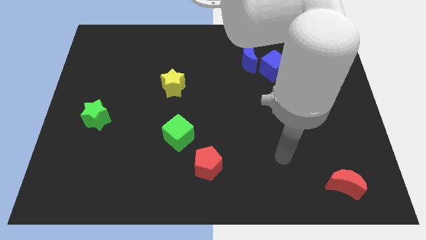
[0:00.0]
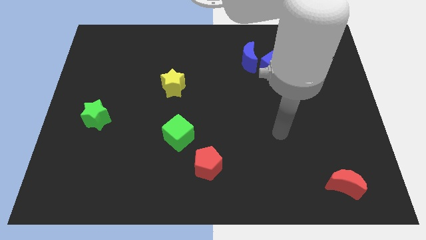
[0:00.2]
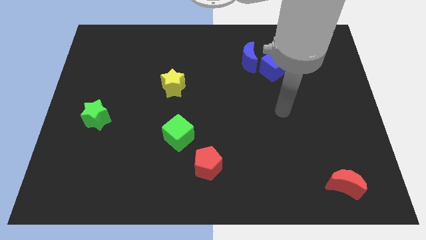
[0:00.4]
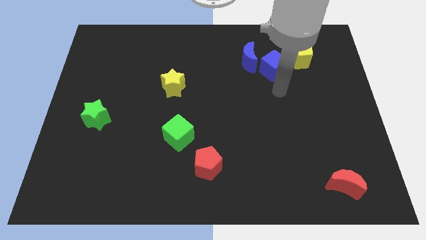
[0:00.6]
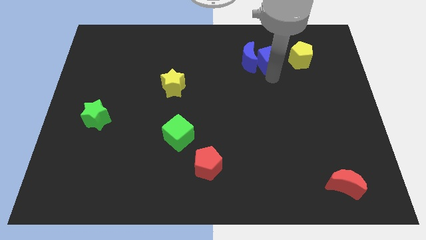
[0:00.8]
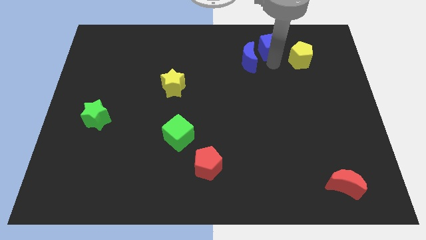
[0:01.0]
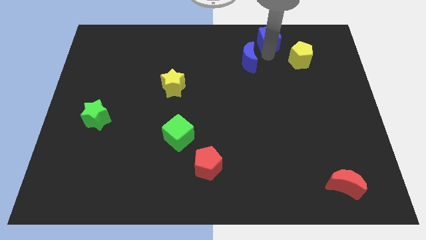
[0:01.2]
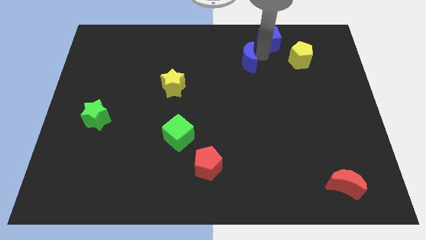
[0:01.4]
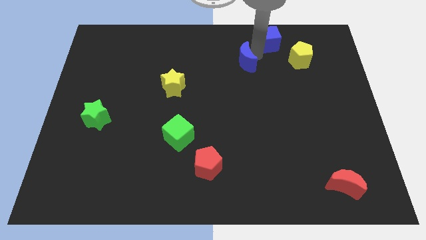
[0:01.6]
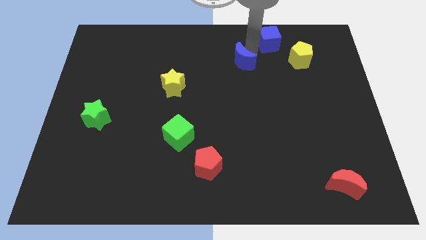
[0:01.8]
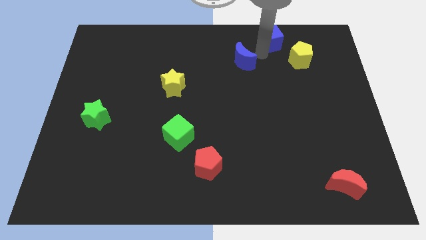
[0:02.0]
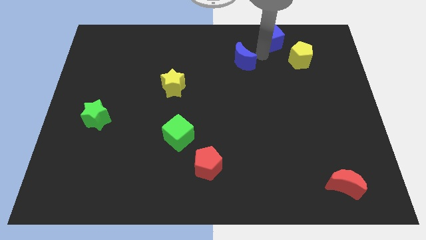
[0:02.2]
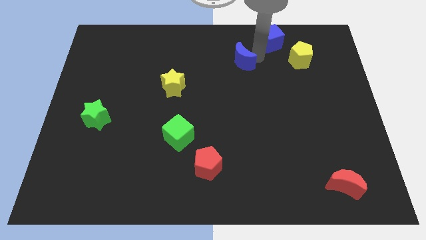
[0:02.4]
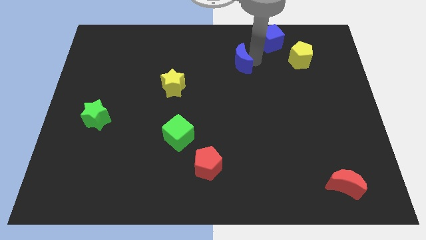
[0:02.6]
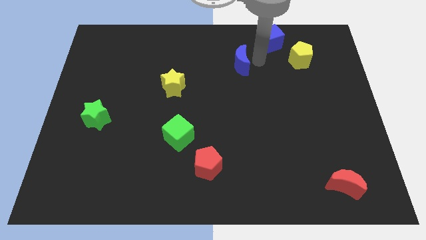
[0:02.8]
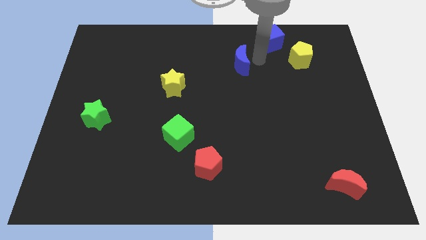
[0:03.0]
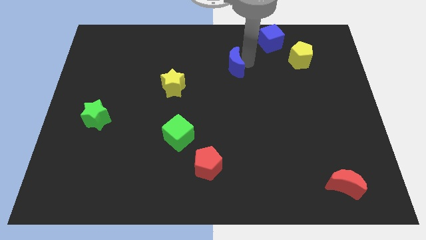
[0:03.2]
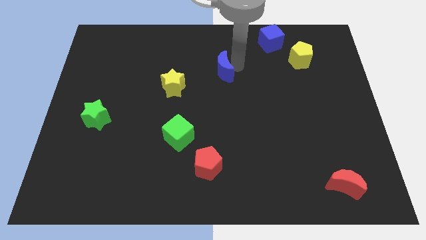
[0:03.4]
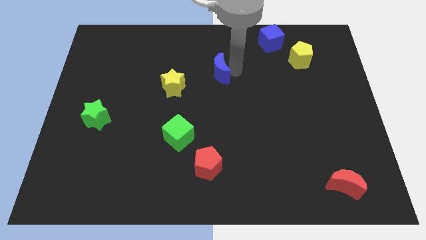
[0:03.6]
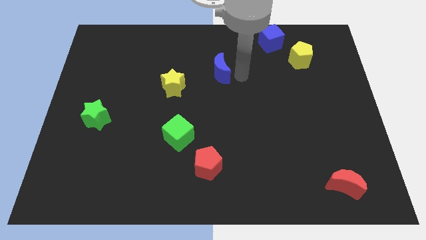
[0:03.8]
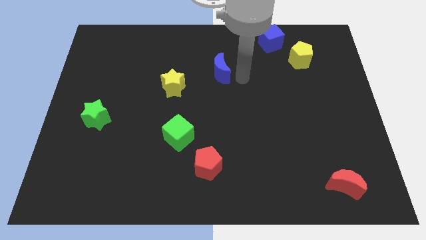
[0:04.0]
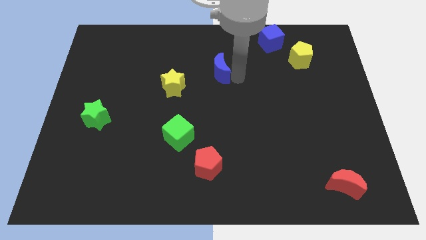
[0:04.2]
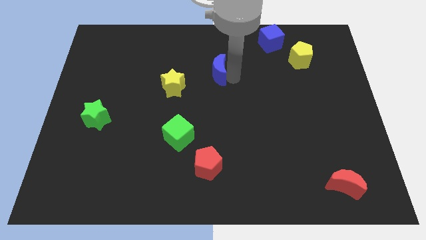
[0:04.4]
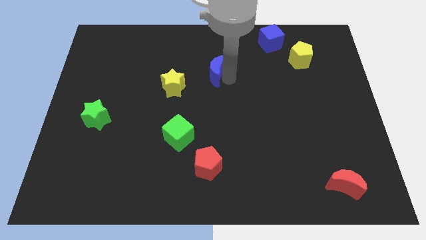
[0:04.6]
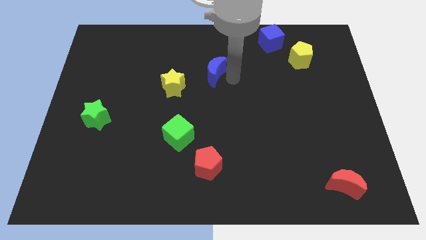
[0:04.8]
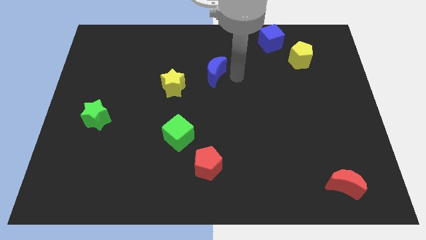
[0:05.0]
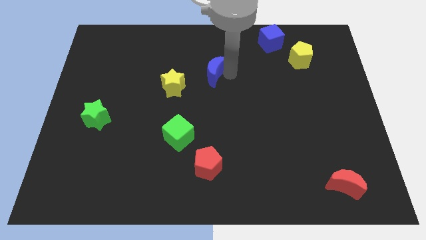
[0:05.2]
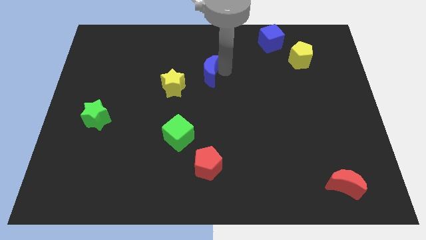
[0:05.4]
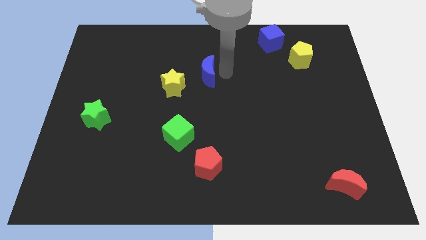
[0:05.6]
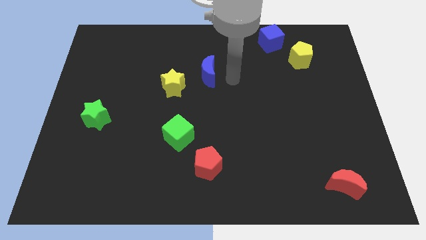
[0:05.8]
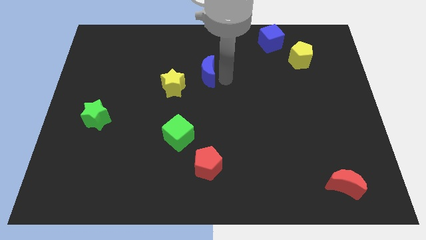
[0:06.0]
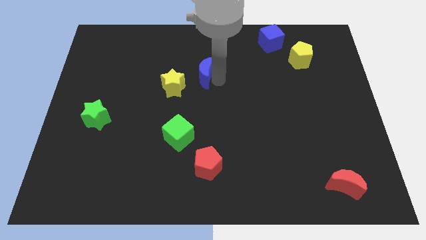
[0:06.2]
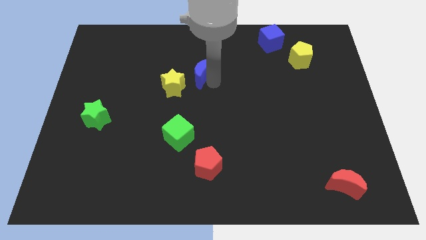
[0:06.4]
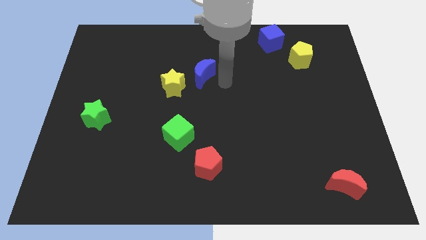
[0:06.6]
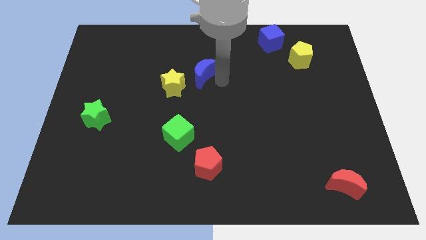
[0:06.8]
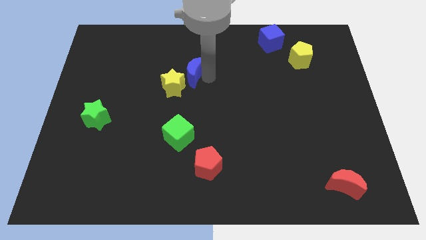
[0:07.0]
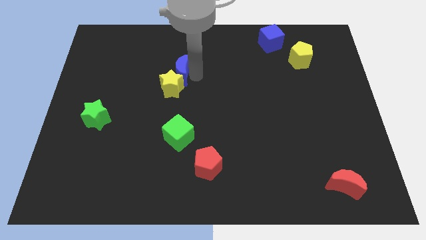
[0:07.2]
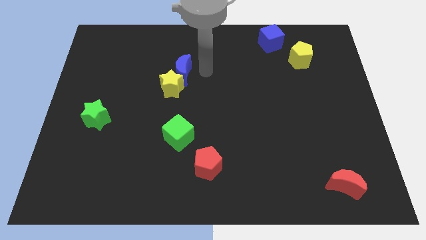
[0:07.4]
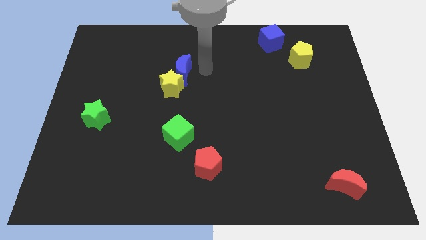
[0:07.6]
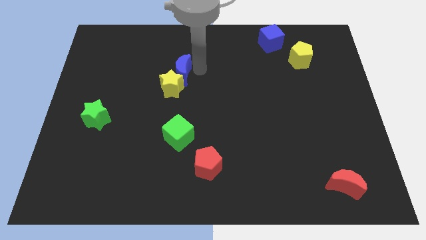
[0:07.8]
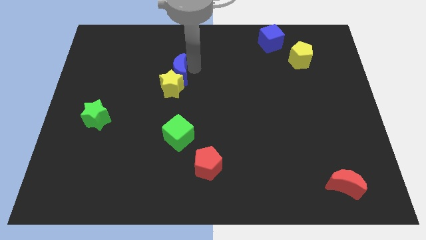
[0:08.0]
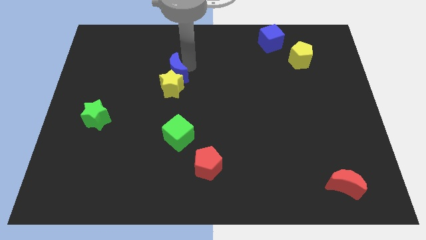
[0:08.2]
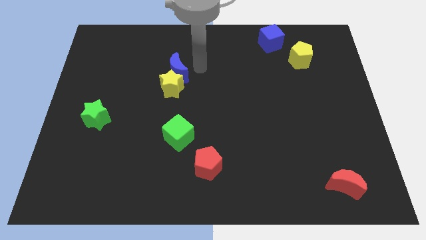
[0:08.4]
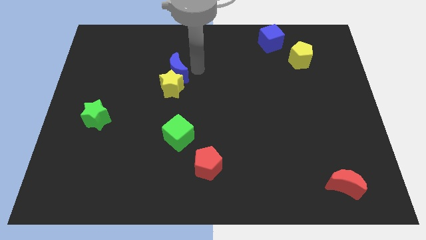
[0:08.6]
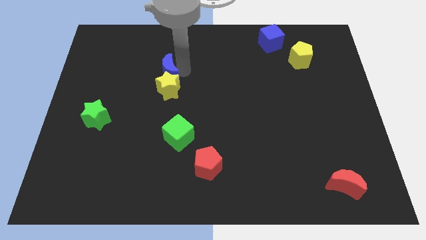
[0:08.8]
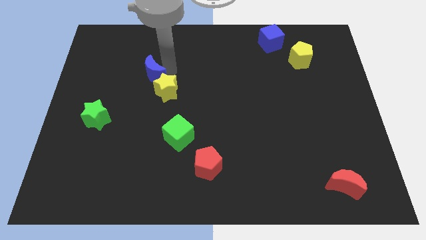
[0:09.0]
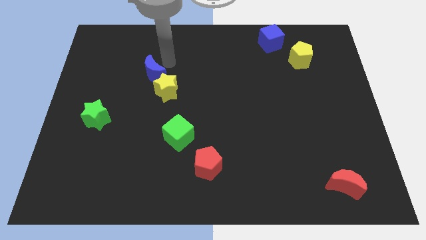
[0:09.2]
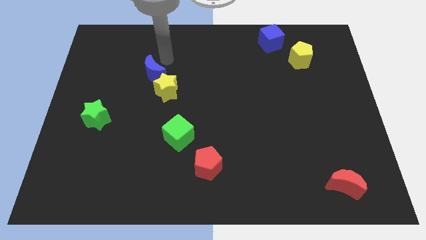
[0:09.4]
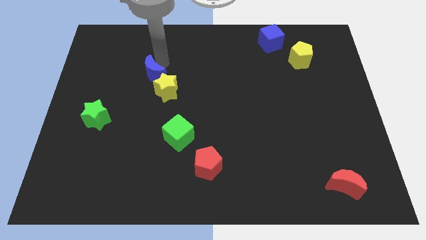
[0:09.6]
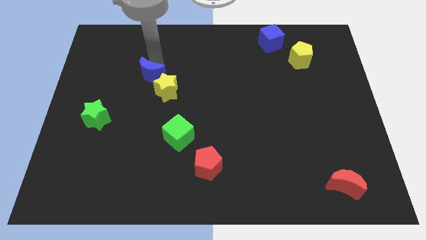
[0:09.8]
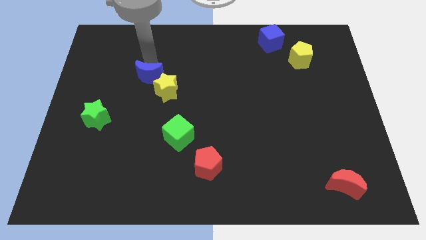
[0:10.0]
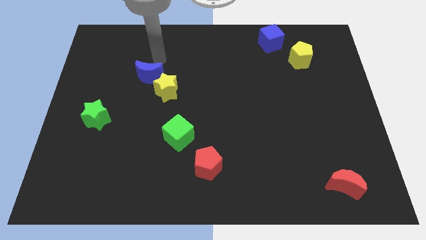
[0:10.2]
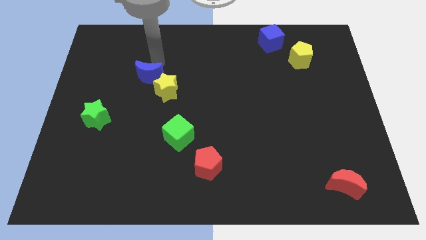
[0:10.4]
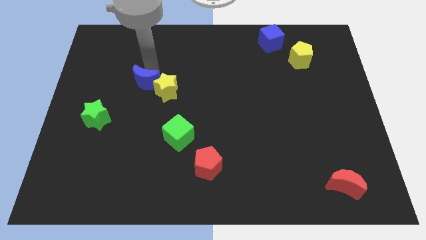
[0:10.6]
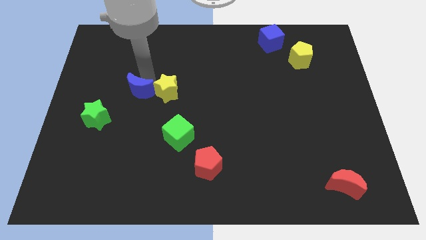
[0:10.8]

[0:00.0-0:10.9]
put the blue moon to the top right of the green star

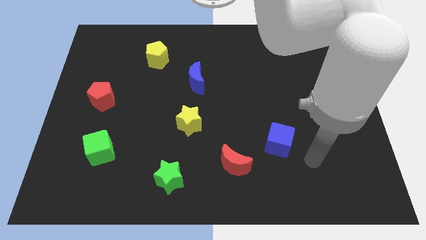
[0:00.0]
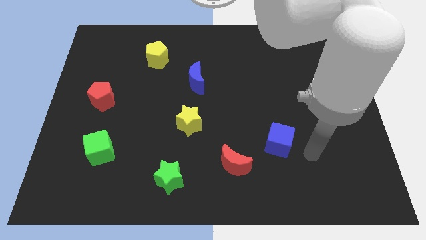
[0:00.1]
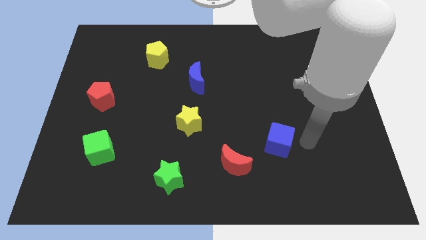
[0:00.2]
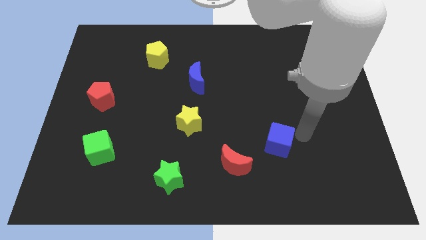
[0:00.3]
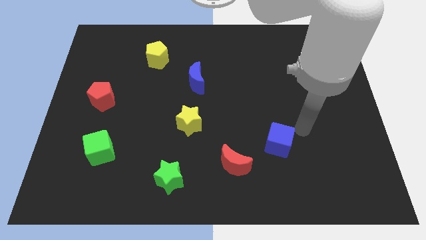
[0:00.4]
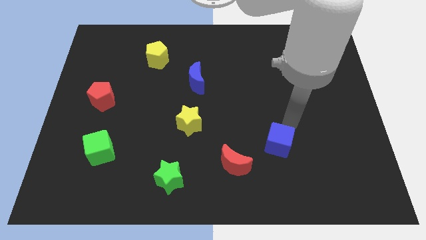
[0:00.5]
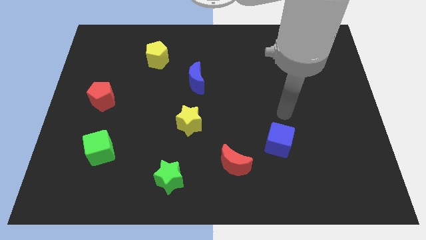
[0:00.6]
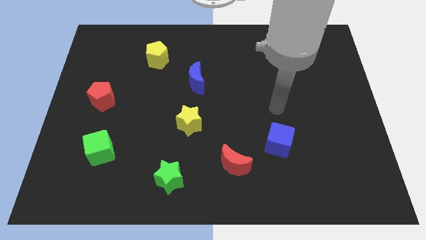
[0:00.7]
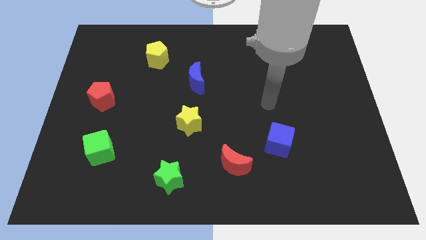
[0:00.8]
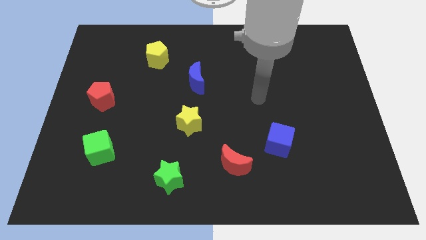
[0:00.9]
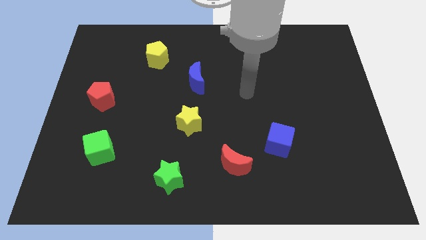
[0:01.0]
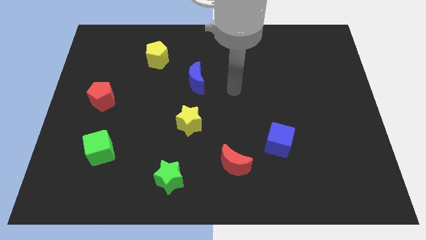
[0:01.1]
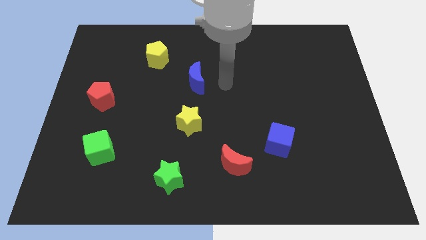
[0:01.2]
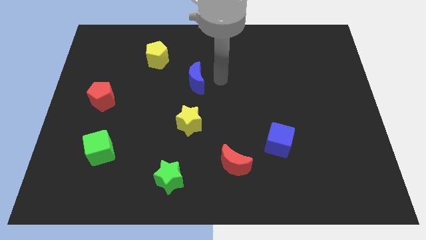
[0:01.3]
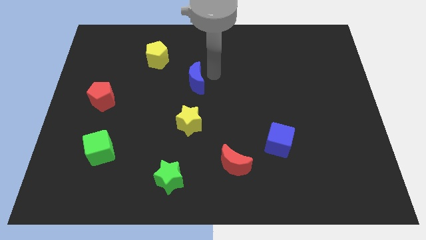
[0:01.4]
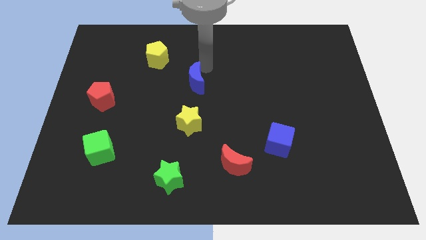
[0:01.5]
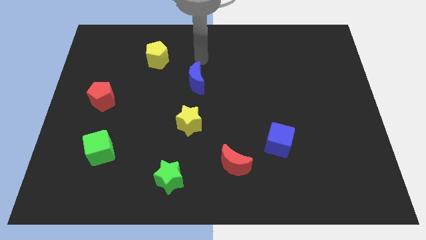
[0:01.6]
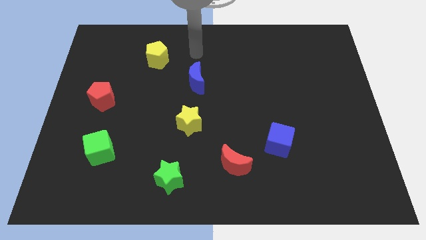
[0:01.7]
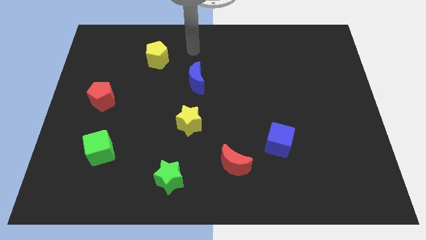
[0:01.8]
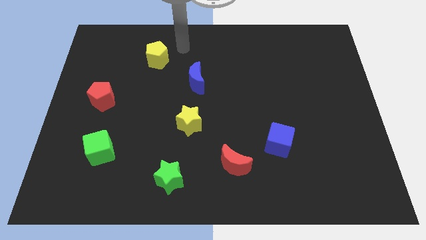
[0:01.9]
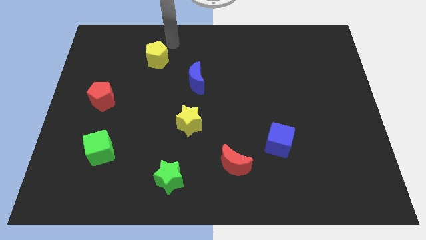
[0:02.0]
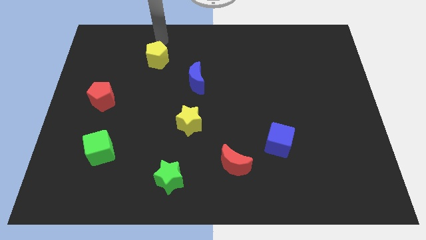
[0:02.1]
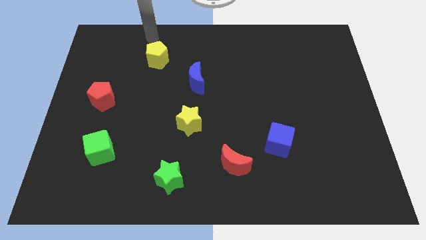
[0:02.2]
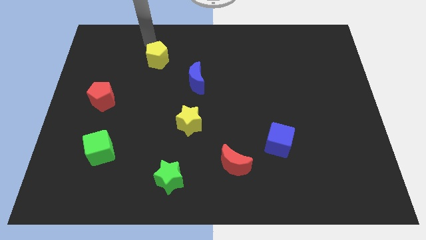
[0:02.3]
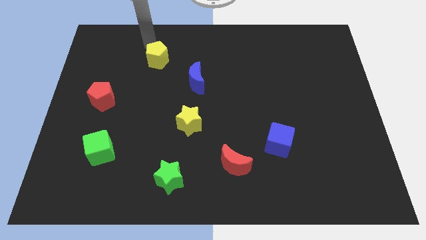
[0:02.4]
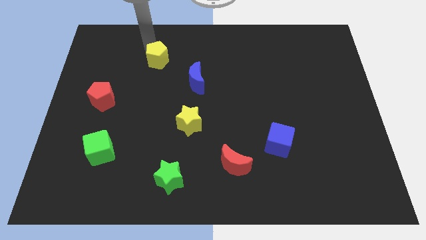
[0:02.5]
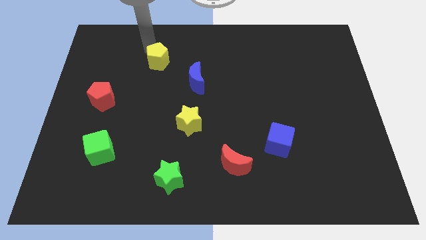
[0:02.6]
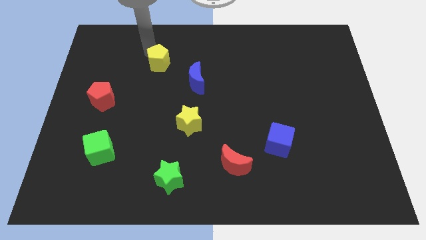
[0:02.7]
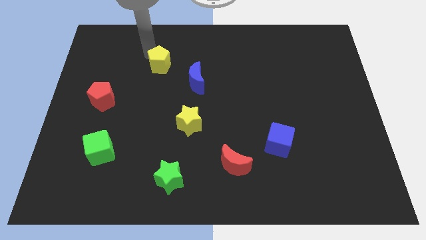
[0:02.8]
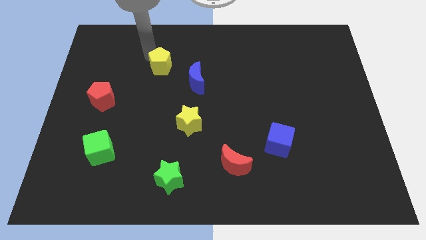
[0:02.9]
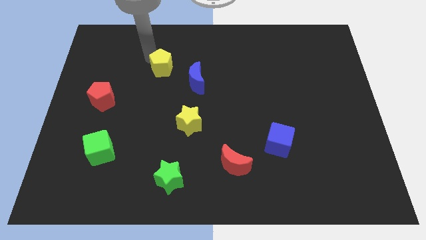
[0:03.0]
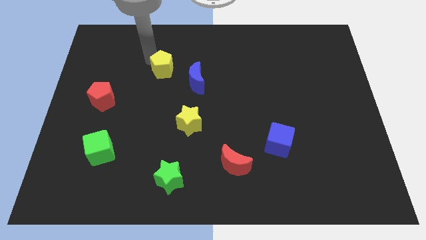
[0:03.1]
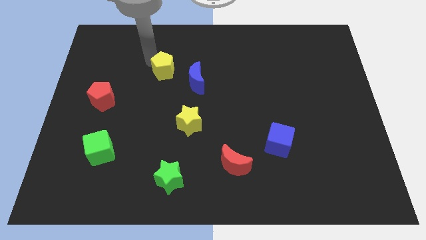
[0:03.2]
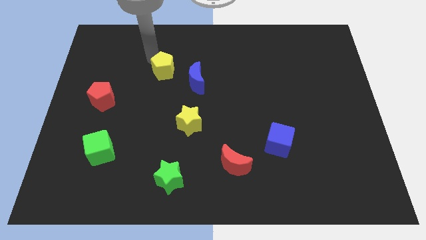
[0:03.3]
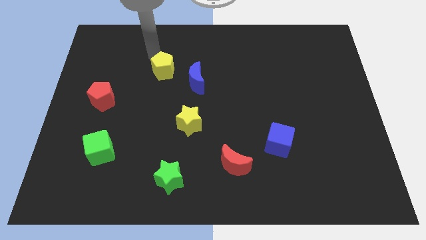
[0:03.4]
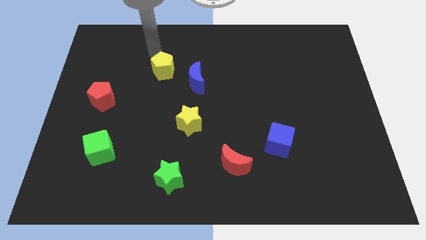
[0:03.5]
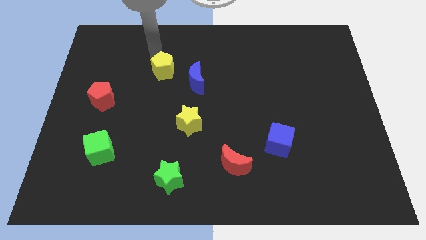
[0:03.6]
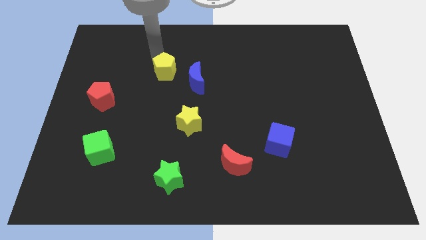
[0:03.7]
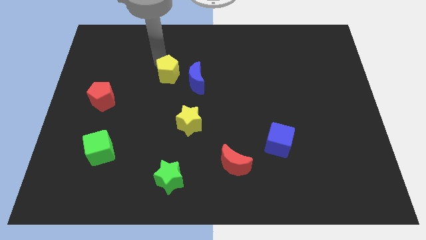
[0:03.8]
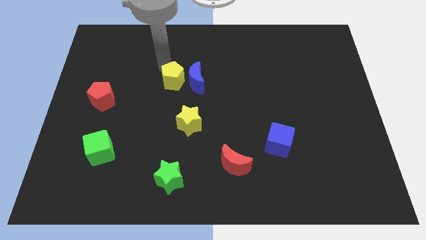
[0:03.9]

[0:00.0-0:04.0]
push the yellow pentagon to the bottom left of the blue moon
